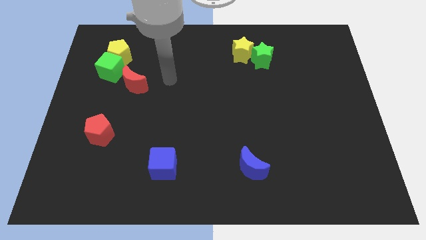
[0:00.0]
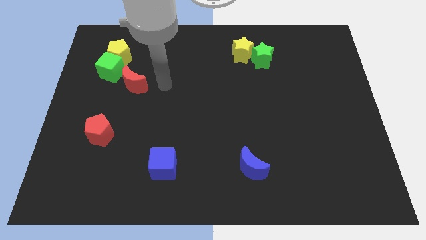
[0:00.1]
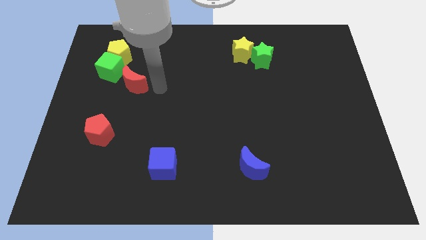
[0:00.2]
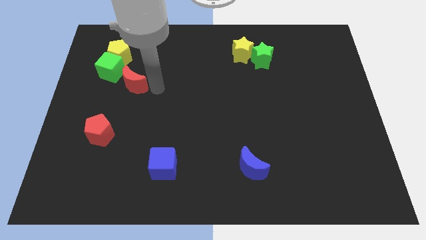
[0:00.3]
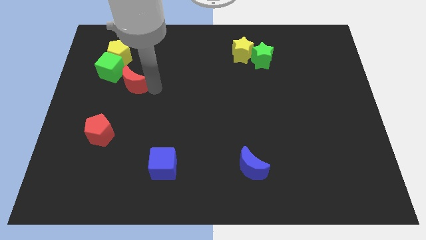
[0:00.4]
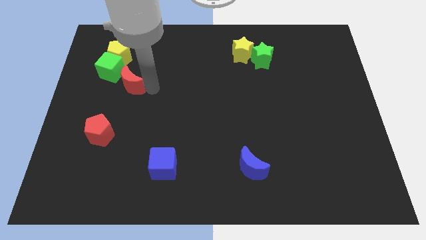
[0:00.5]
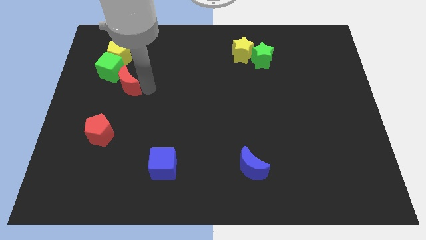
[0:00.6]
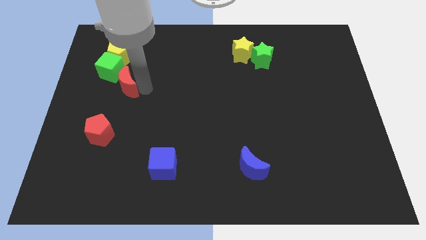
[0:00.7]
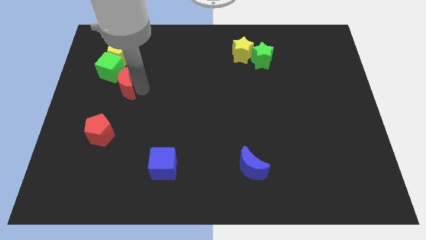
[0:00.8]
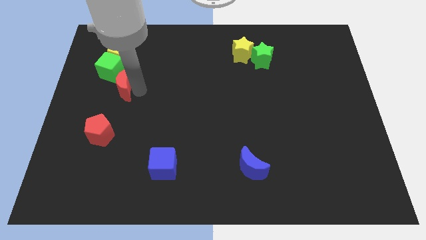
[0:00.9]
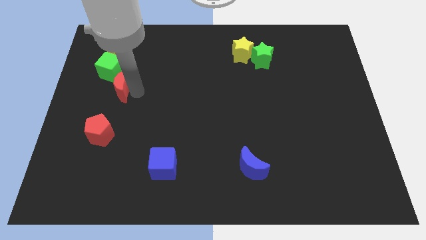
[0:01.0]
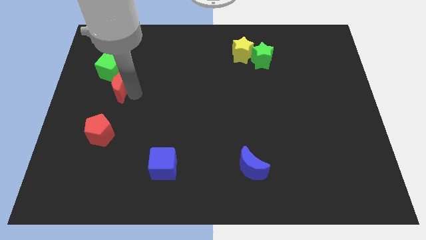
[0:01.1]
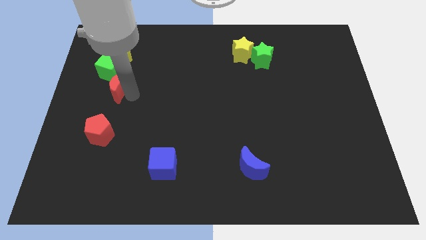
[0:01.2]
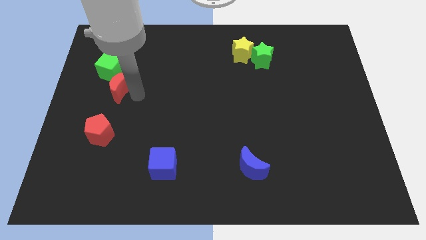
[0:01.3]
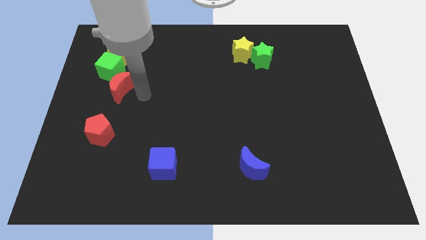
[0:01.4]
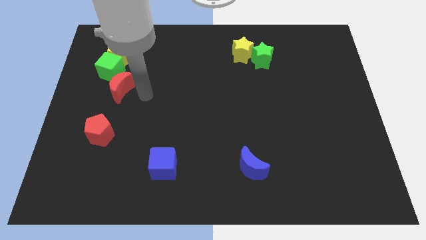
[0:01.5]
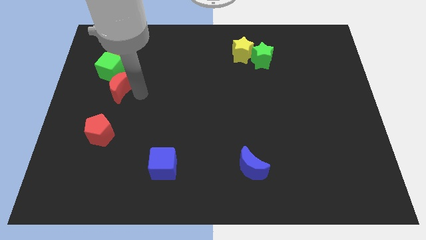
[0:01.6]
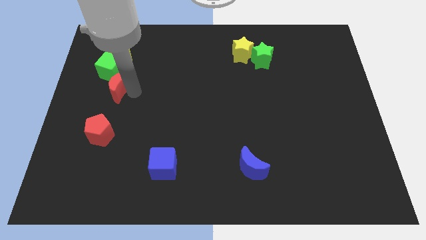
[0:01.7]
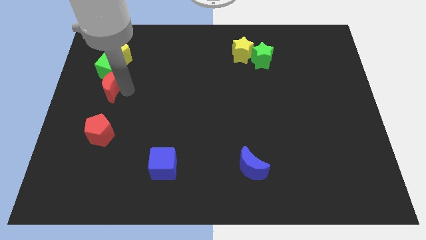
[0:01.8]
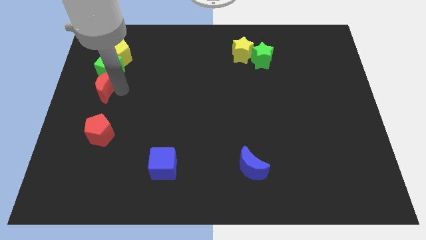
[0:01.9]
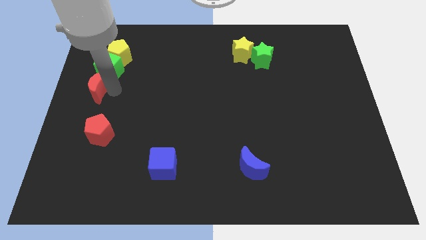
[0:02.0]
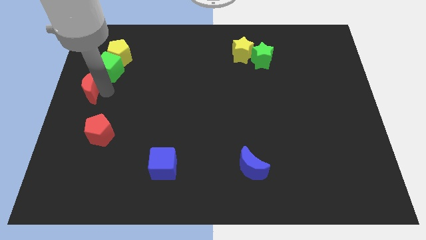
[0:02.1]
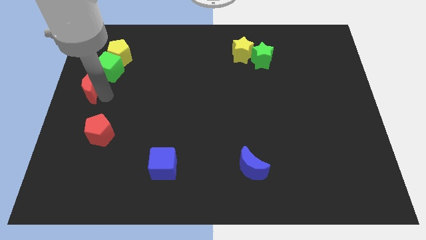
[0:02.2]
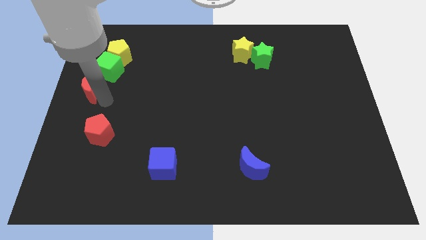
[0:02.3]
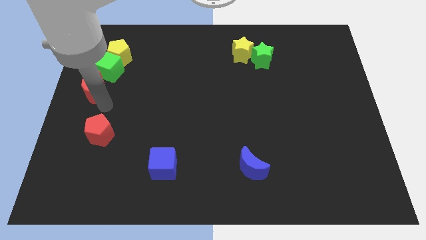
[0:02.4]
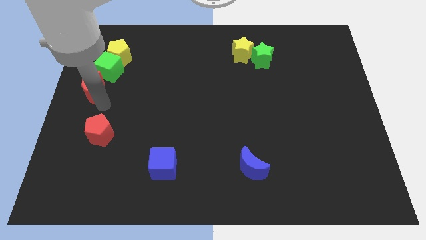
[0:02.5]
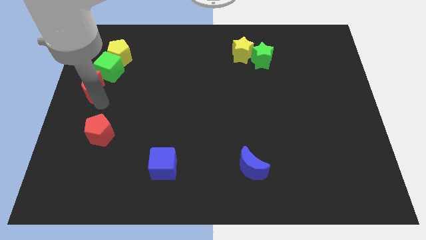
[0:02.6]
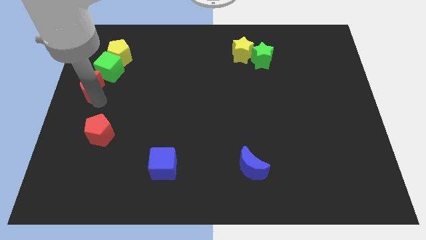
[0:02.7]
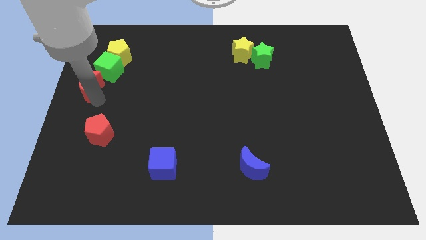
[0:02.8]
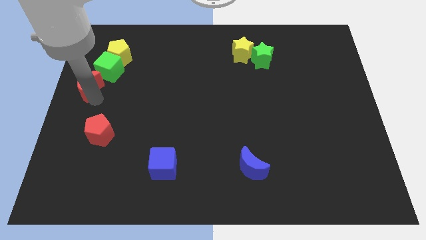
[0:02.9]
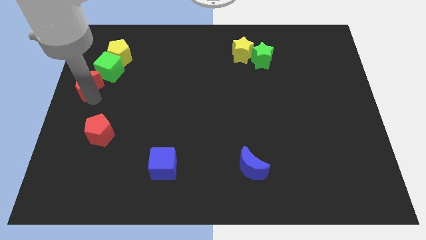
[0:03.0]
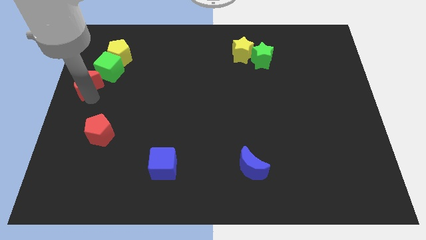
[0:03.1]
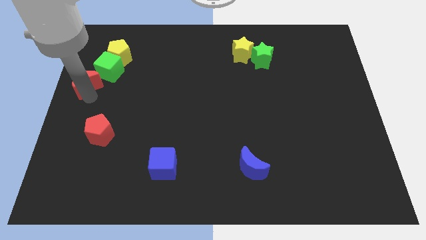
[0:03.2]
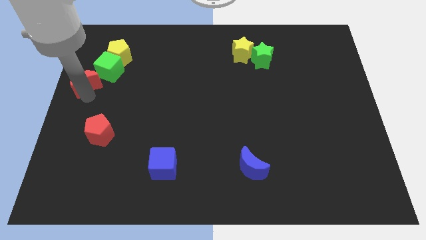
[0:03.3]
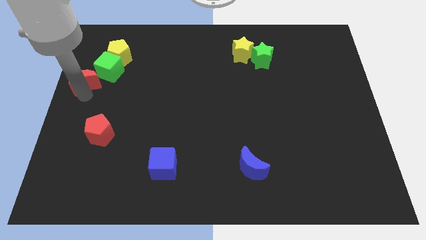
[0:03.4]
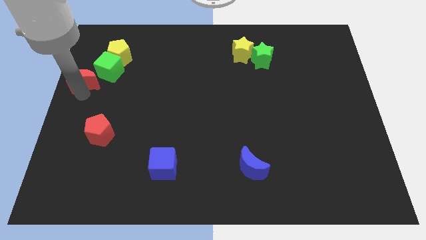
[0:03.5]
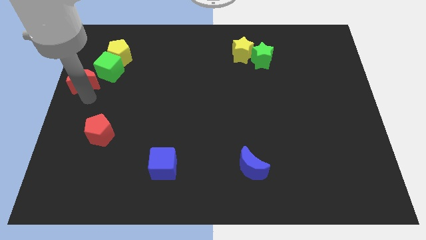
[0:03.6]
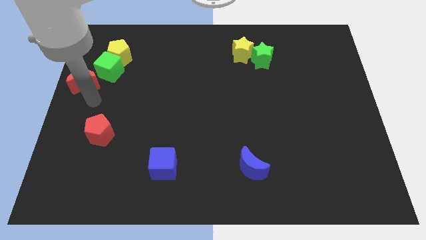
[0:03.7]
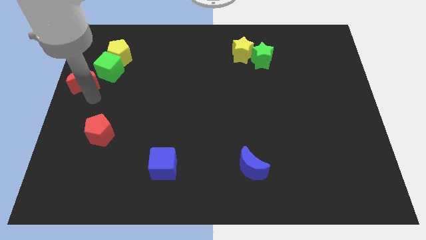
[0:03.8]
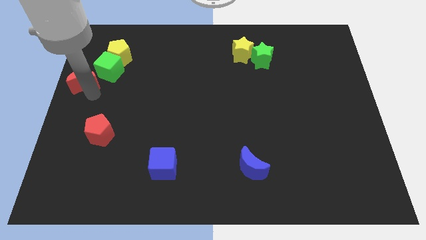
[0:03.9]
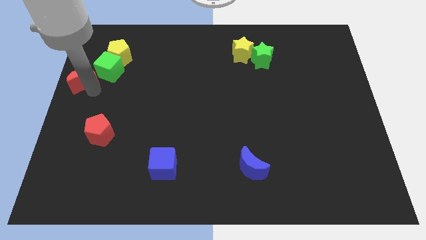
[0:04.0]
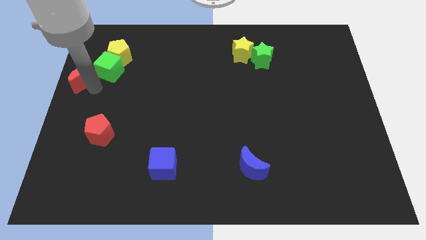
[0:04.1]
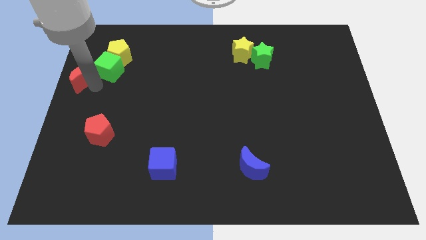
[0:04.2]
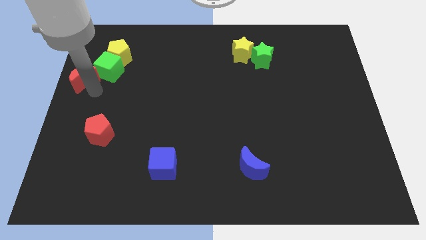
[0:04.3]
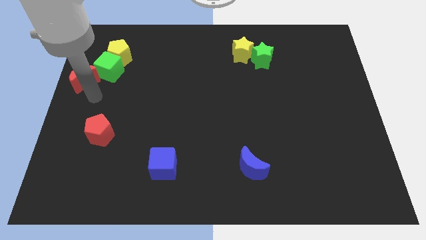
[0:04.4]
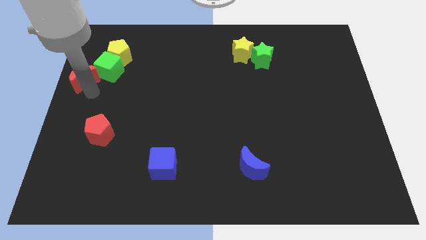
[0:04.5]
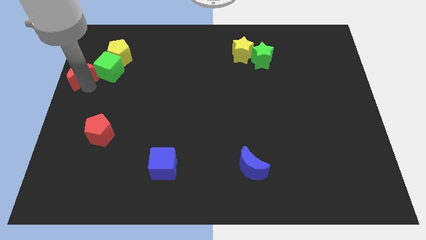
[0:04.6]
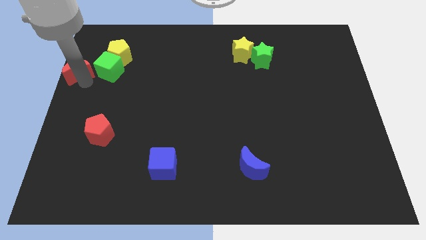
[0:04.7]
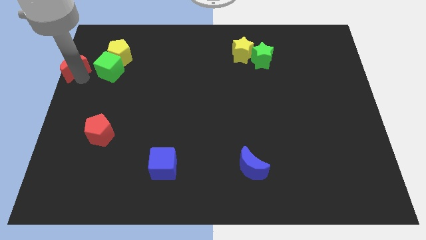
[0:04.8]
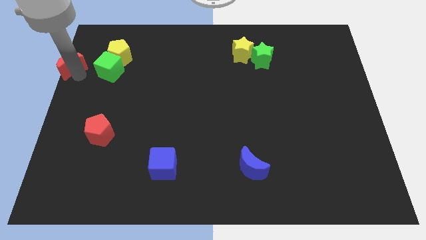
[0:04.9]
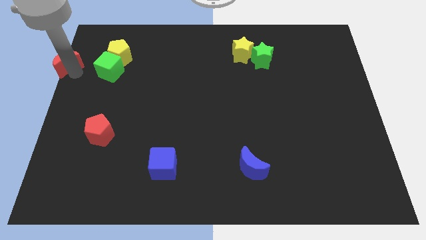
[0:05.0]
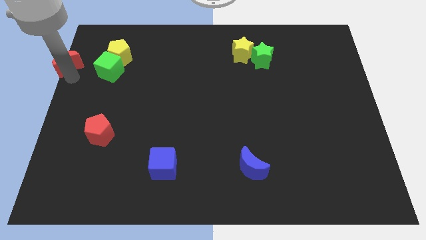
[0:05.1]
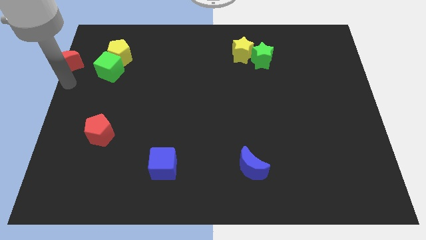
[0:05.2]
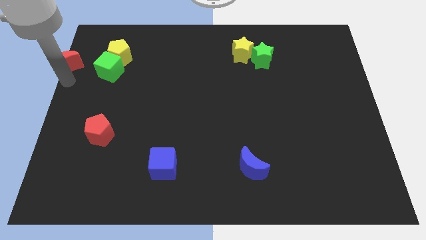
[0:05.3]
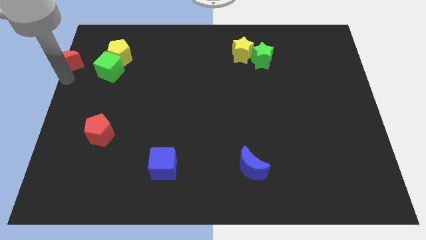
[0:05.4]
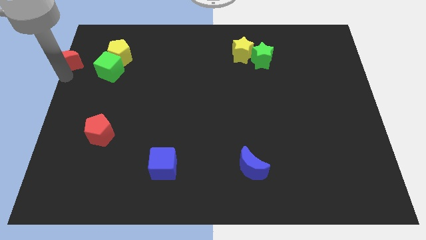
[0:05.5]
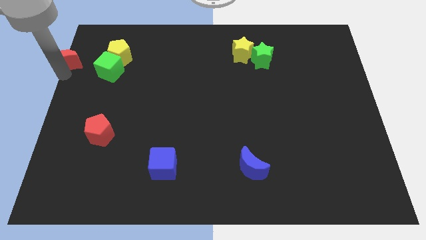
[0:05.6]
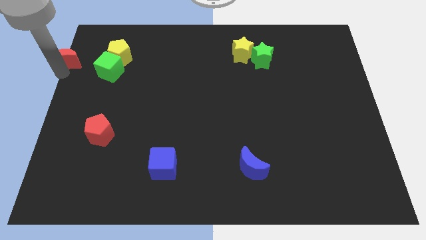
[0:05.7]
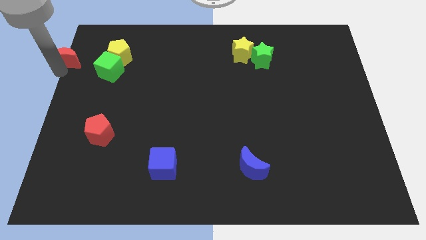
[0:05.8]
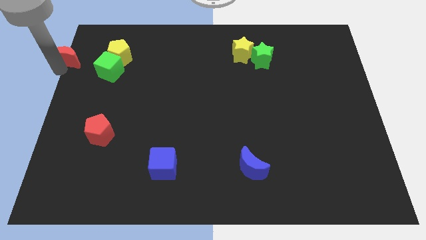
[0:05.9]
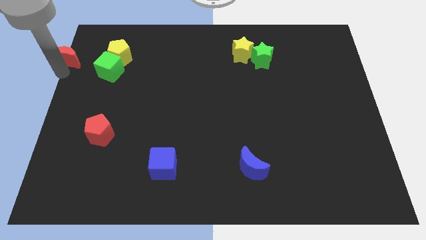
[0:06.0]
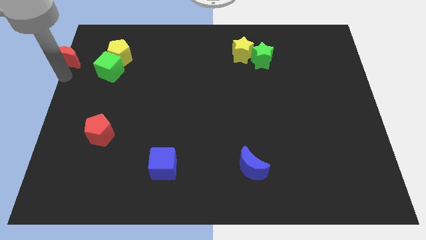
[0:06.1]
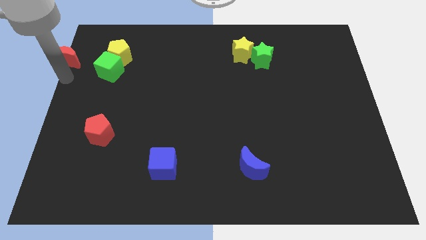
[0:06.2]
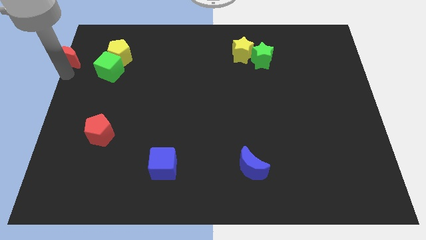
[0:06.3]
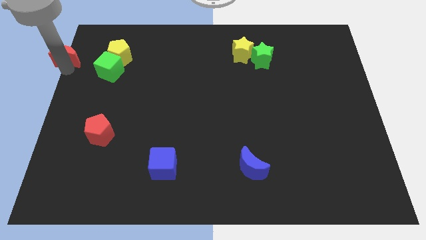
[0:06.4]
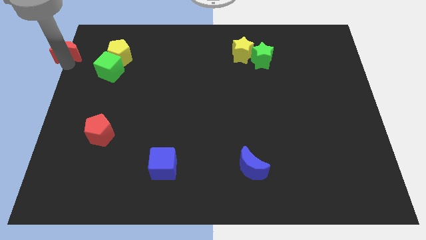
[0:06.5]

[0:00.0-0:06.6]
slide the red moon to the top left
